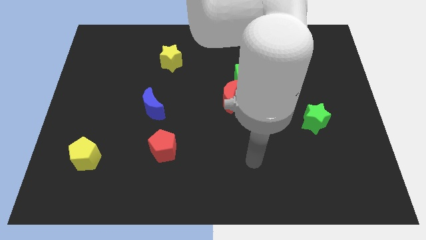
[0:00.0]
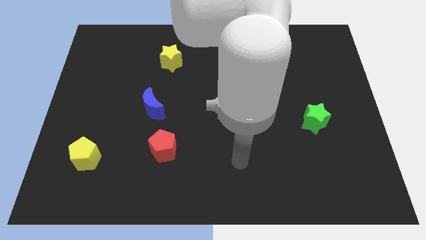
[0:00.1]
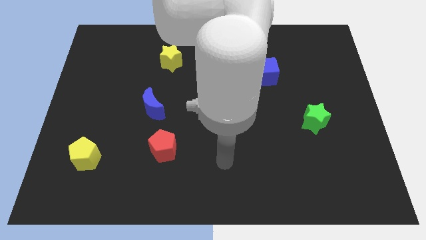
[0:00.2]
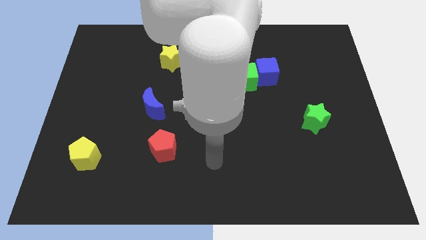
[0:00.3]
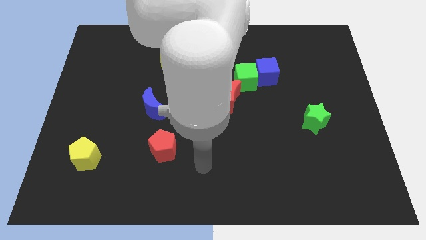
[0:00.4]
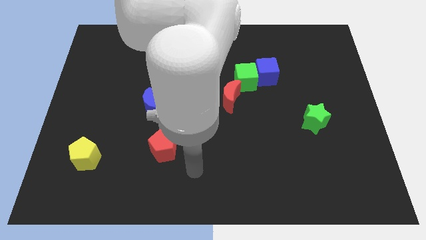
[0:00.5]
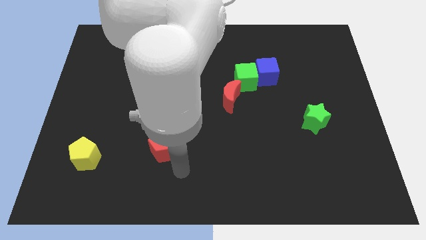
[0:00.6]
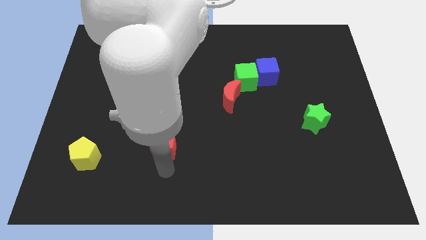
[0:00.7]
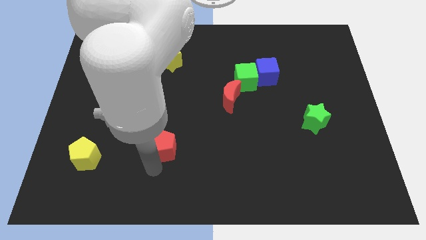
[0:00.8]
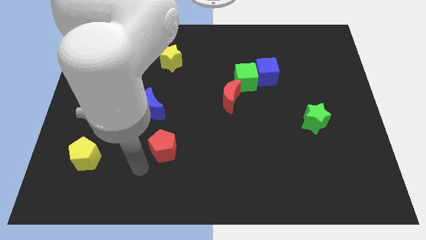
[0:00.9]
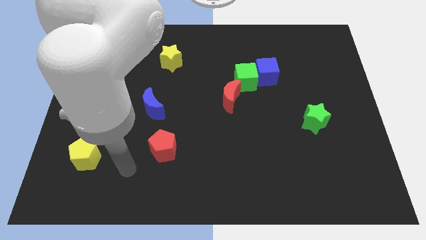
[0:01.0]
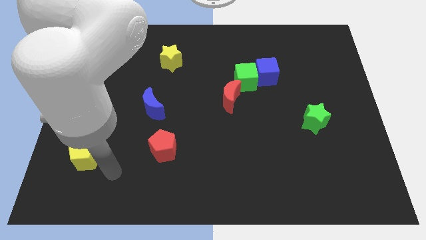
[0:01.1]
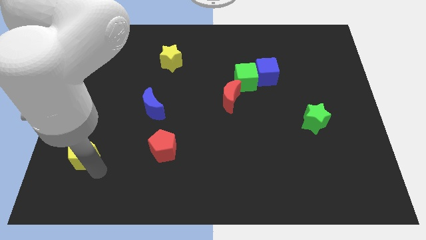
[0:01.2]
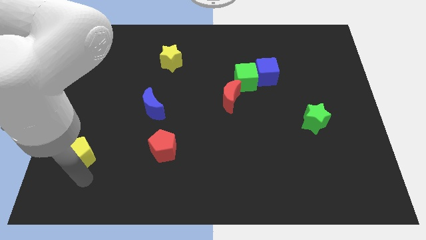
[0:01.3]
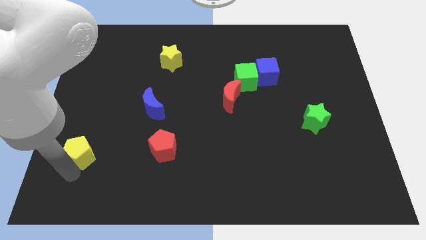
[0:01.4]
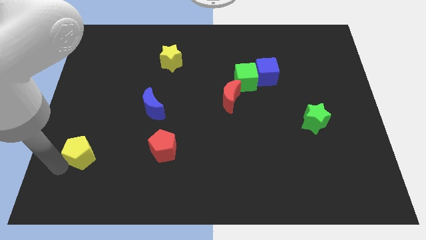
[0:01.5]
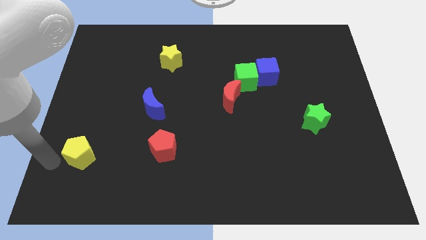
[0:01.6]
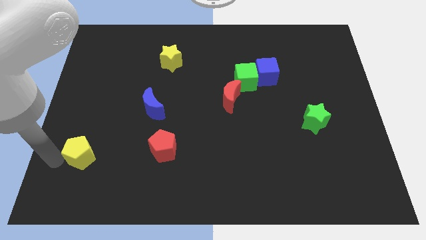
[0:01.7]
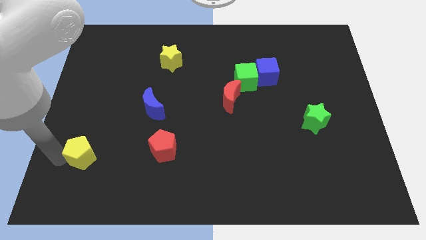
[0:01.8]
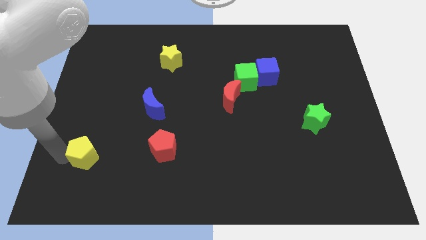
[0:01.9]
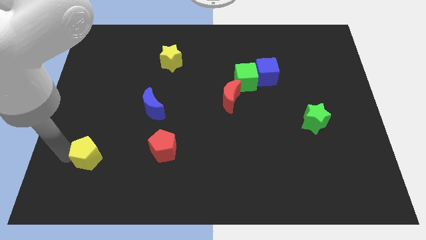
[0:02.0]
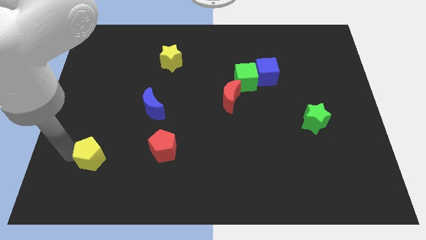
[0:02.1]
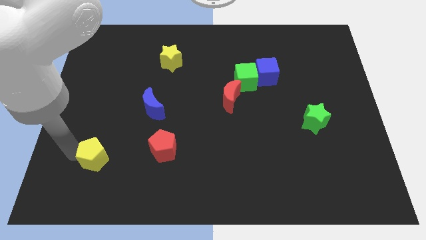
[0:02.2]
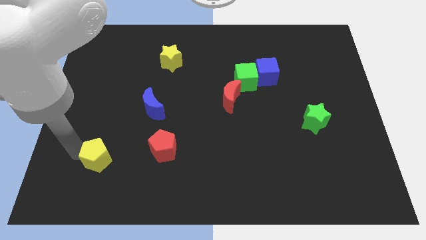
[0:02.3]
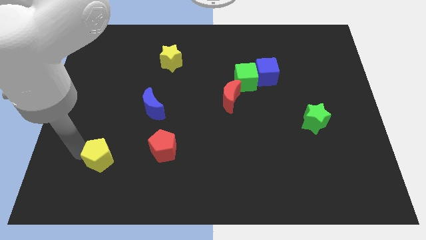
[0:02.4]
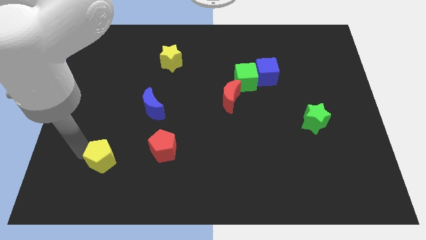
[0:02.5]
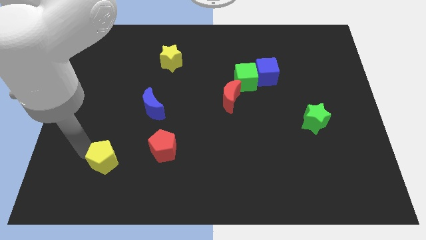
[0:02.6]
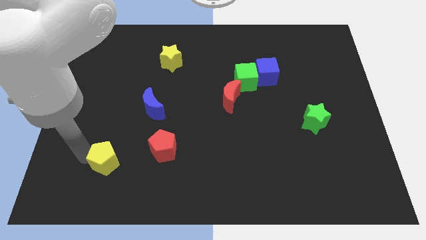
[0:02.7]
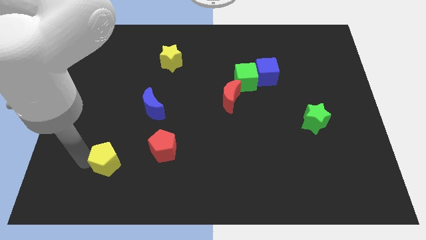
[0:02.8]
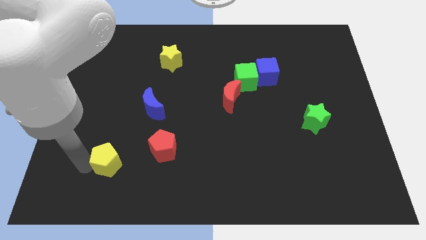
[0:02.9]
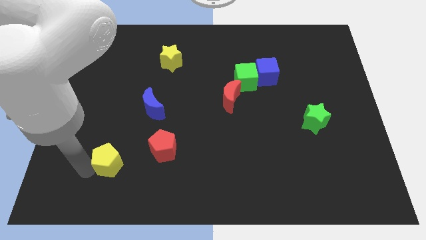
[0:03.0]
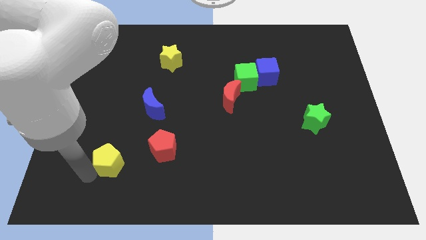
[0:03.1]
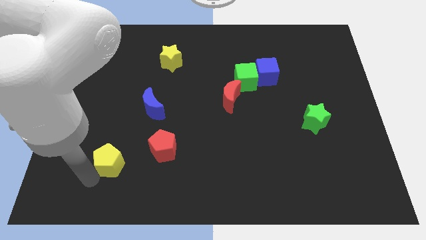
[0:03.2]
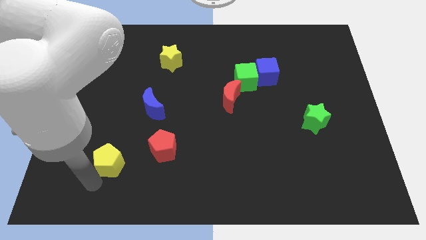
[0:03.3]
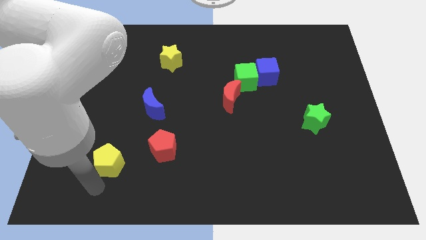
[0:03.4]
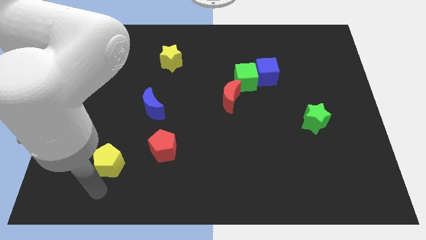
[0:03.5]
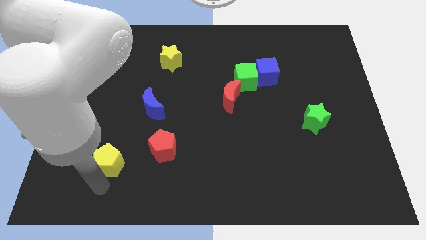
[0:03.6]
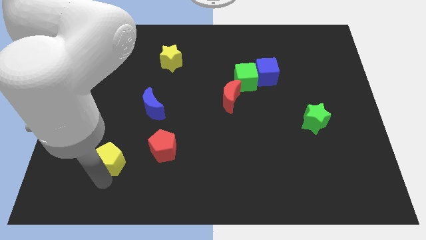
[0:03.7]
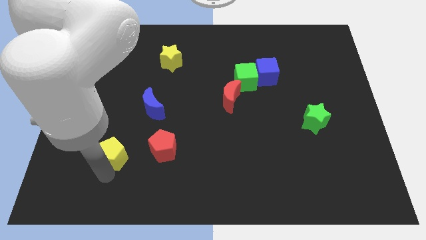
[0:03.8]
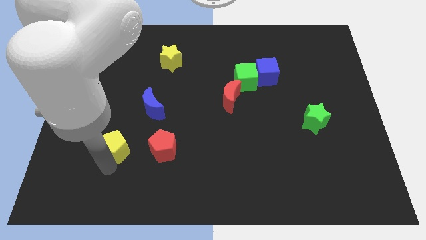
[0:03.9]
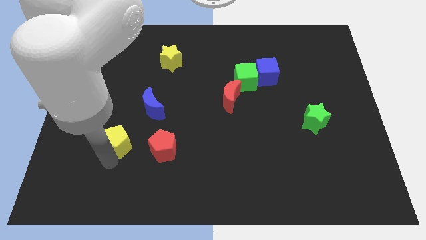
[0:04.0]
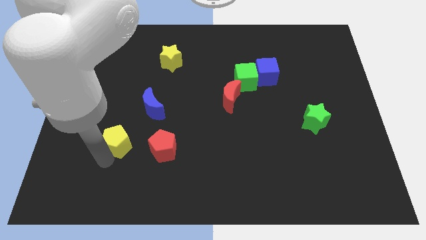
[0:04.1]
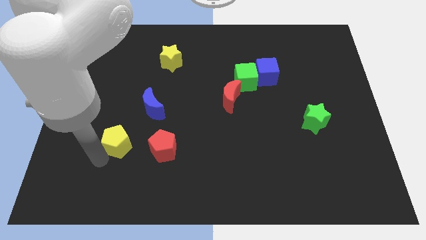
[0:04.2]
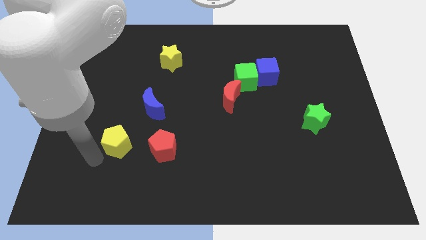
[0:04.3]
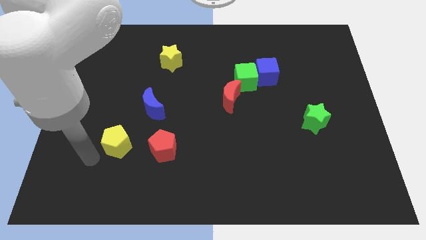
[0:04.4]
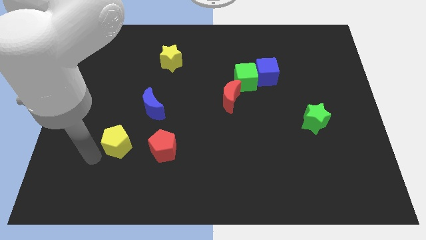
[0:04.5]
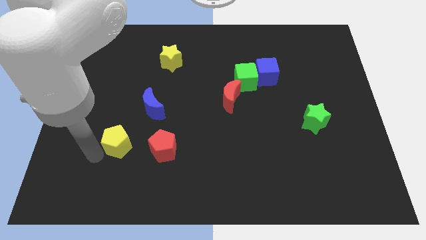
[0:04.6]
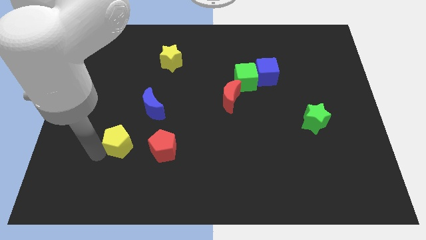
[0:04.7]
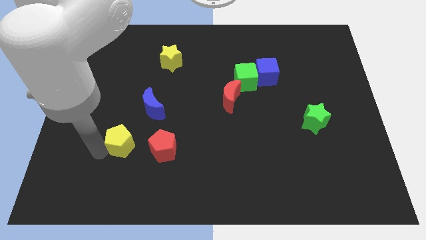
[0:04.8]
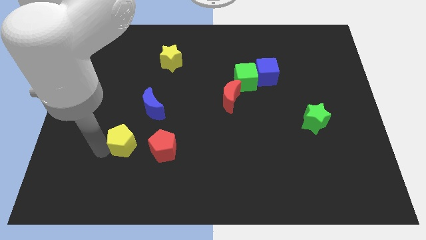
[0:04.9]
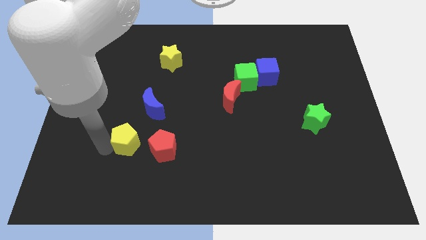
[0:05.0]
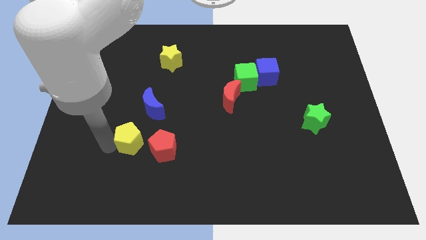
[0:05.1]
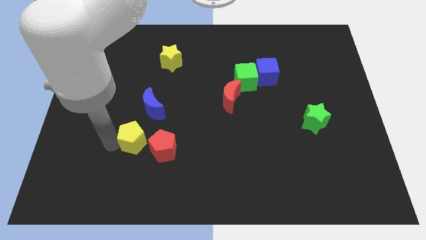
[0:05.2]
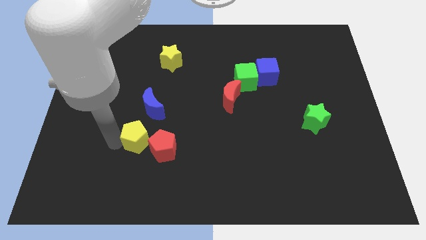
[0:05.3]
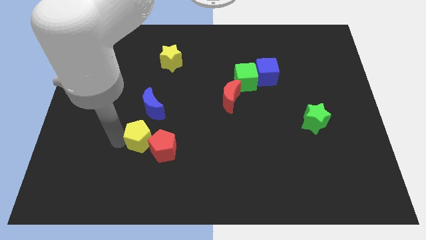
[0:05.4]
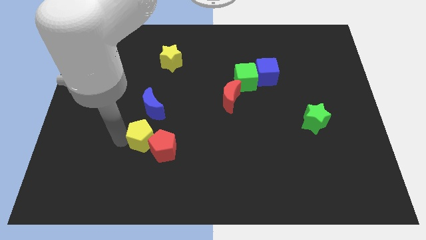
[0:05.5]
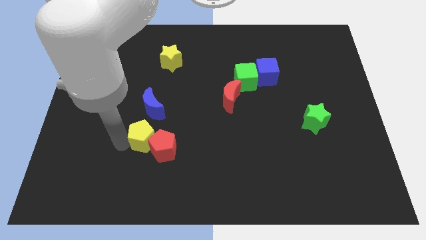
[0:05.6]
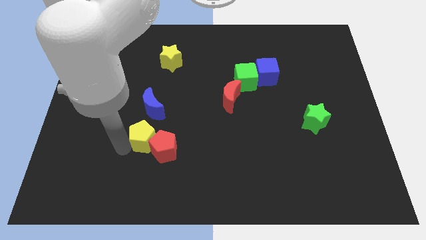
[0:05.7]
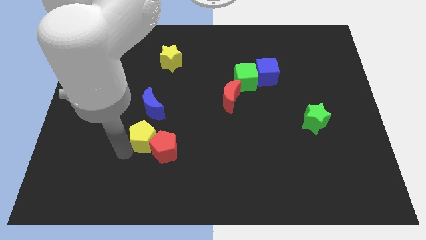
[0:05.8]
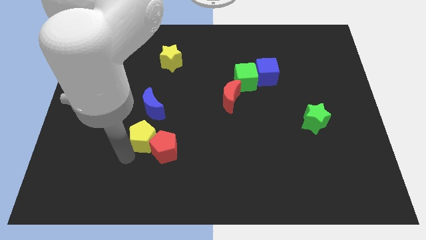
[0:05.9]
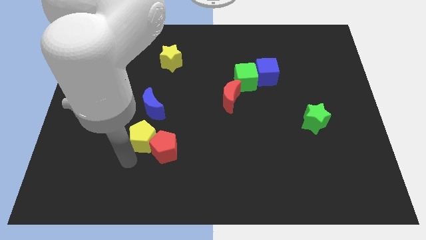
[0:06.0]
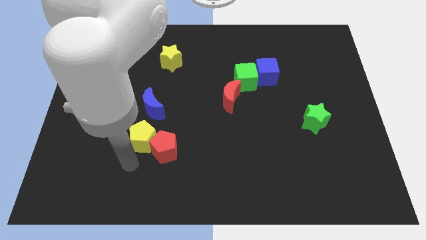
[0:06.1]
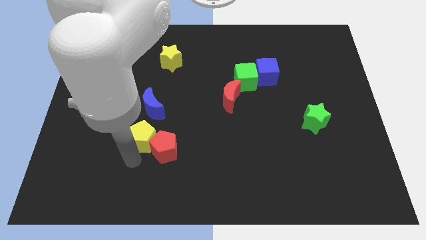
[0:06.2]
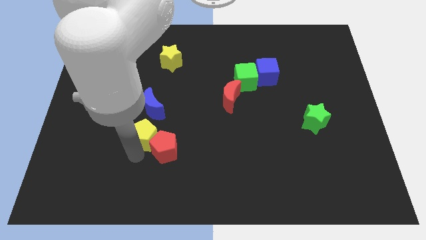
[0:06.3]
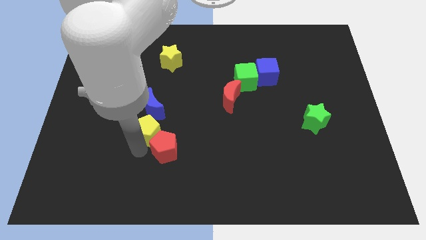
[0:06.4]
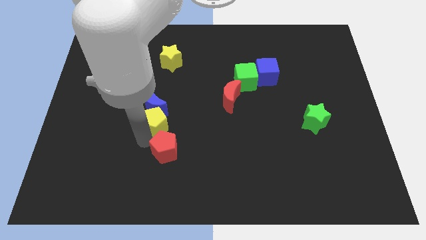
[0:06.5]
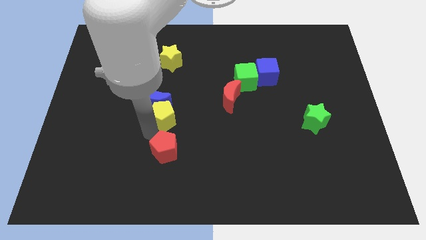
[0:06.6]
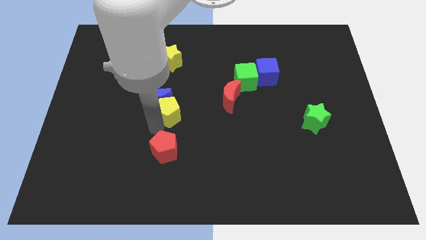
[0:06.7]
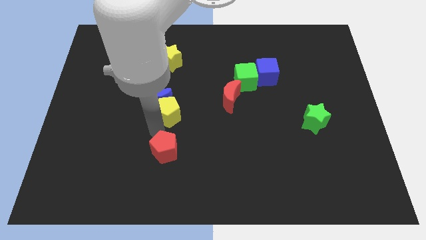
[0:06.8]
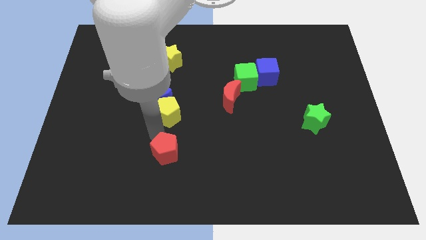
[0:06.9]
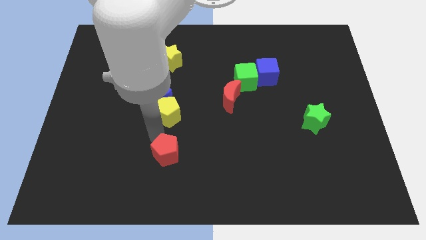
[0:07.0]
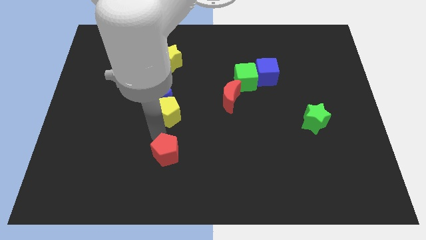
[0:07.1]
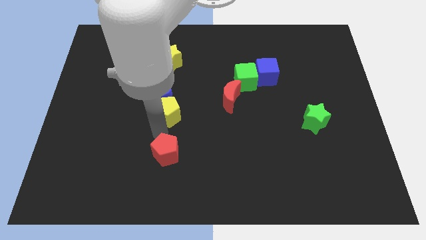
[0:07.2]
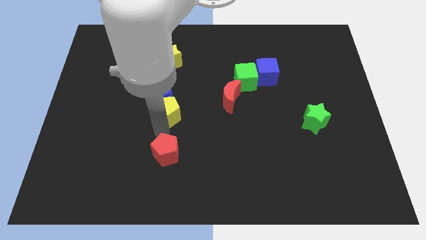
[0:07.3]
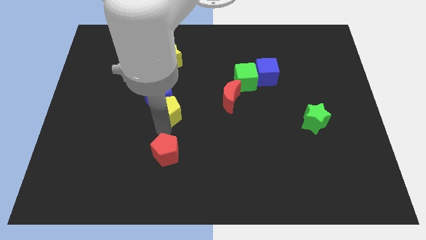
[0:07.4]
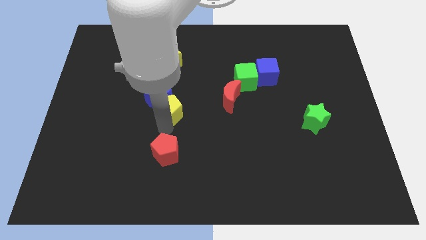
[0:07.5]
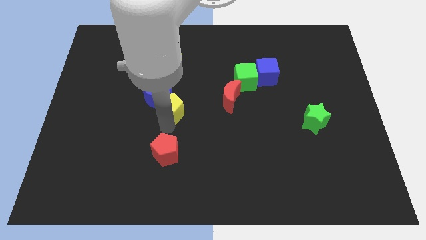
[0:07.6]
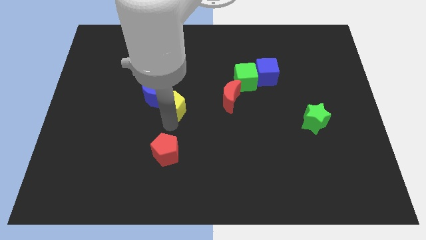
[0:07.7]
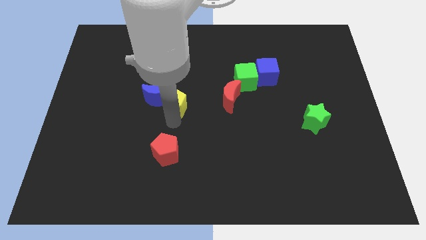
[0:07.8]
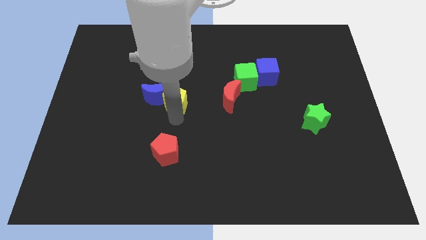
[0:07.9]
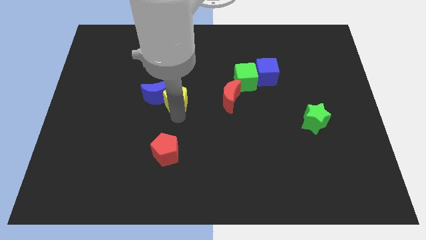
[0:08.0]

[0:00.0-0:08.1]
push the yellow pentagon to the top right side of the blue moon
